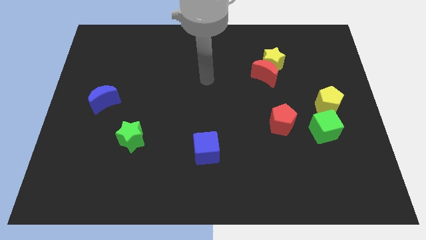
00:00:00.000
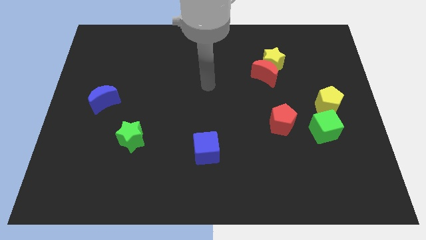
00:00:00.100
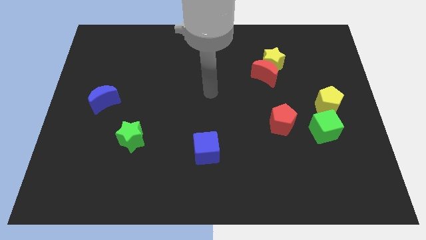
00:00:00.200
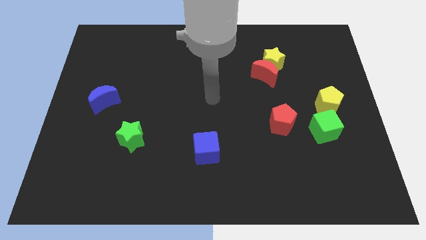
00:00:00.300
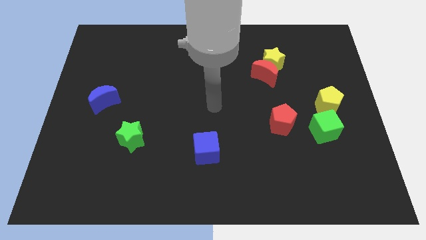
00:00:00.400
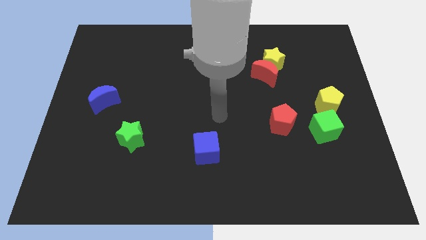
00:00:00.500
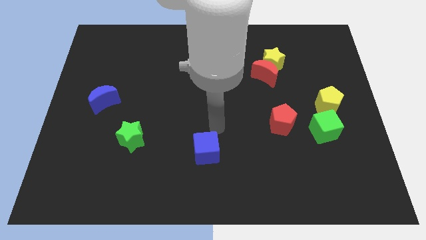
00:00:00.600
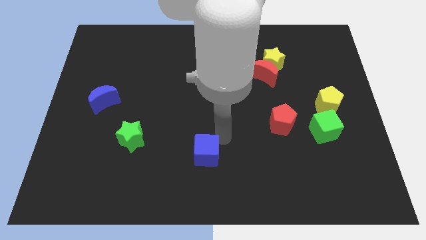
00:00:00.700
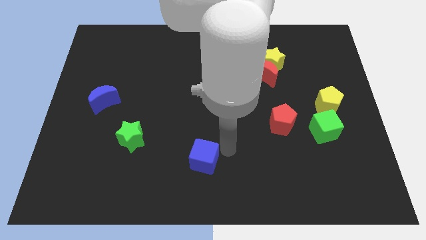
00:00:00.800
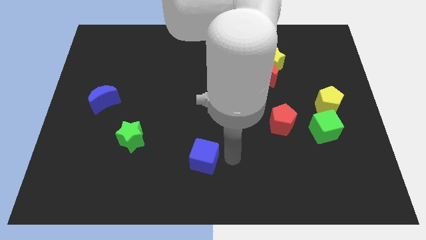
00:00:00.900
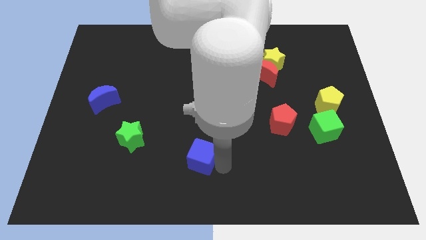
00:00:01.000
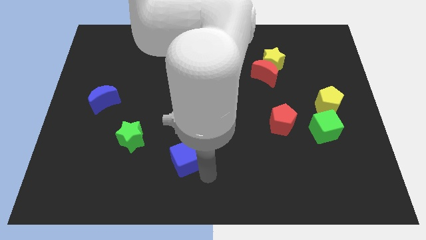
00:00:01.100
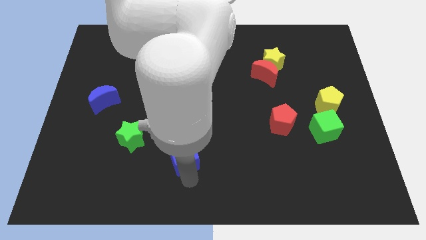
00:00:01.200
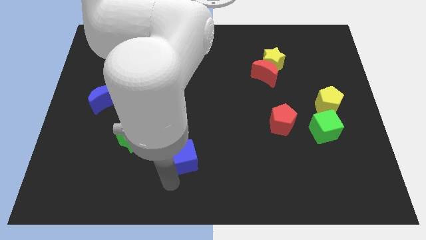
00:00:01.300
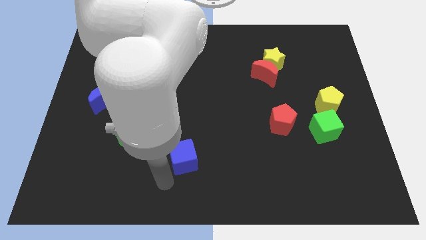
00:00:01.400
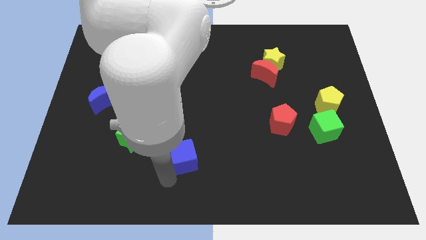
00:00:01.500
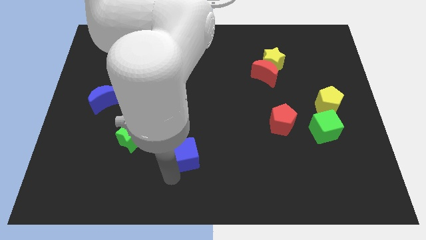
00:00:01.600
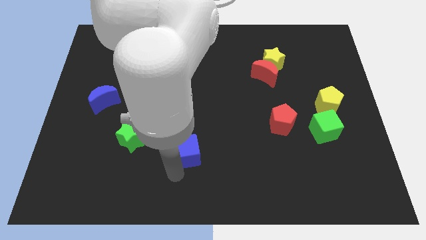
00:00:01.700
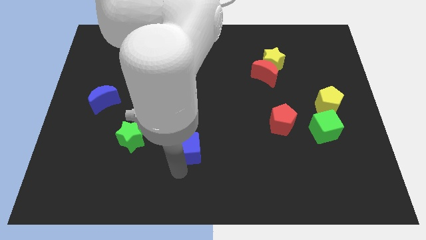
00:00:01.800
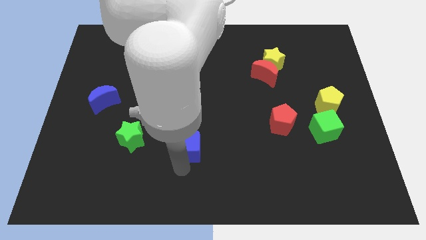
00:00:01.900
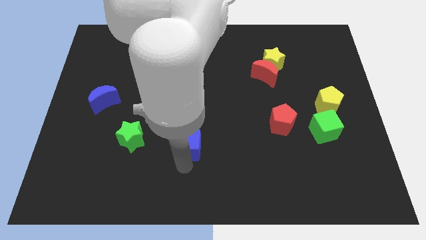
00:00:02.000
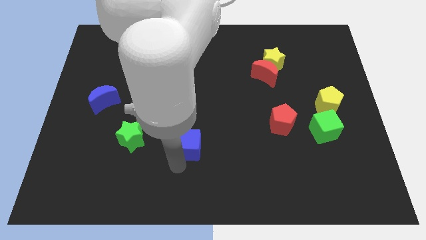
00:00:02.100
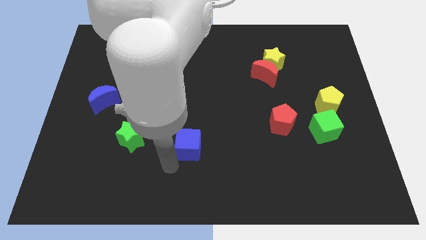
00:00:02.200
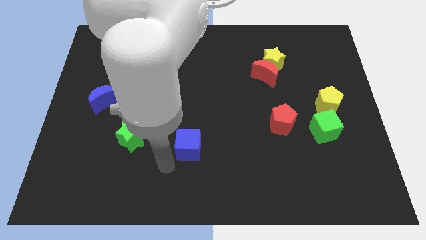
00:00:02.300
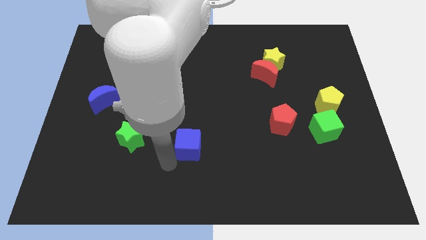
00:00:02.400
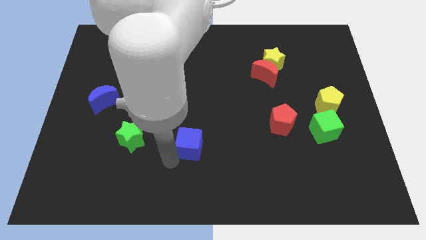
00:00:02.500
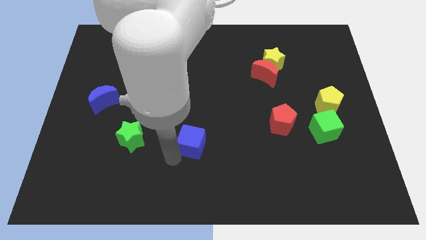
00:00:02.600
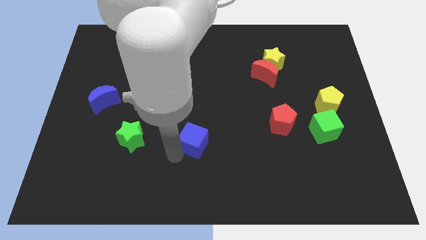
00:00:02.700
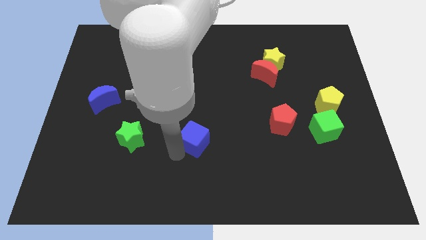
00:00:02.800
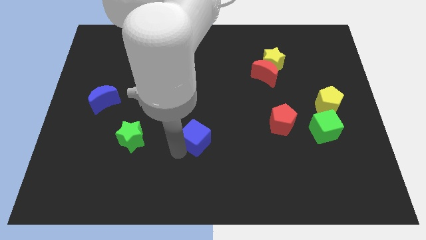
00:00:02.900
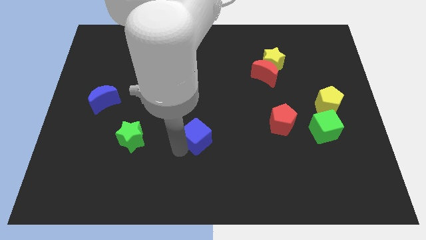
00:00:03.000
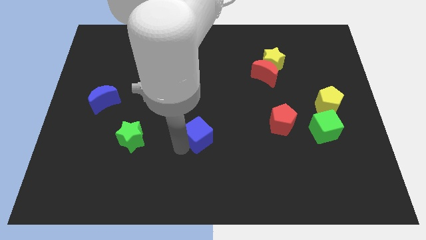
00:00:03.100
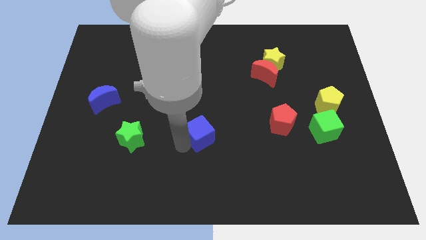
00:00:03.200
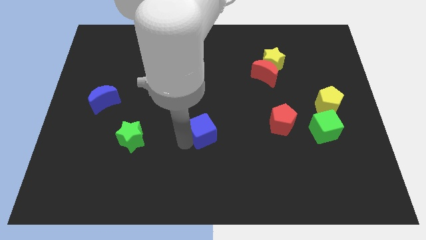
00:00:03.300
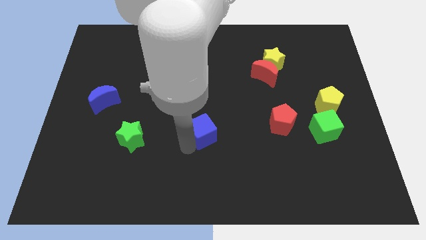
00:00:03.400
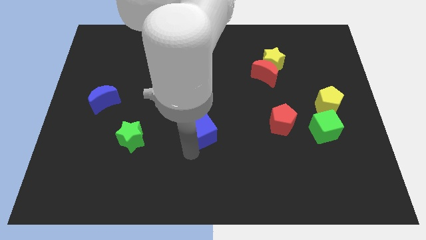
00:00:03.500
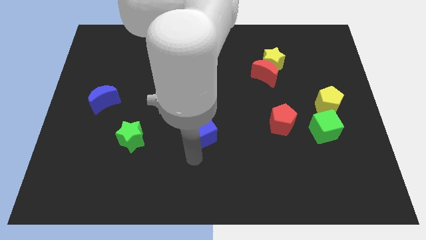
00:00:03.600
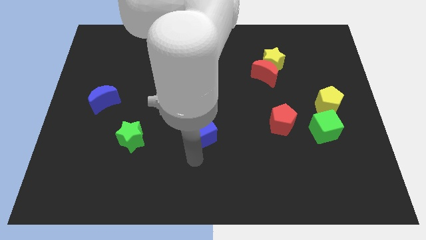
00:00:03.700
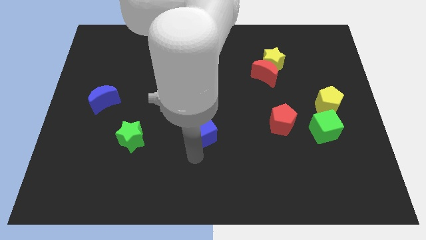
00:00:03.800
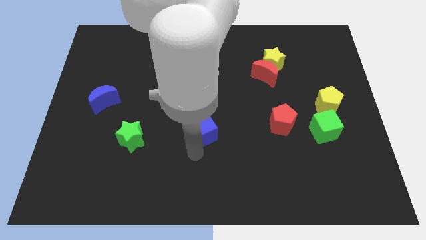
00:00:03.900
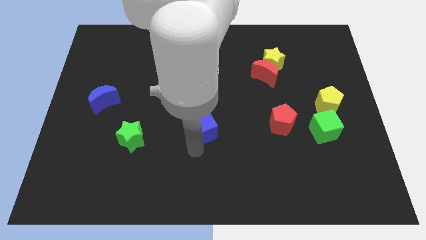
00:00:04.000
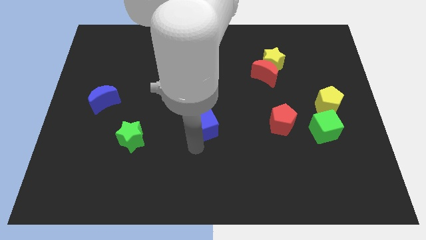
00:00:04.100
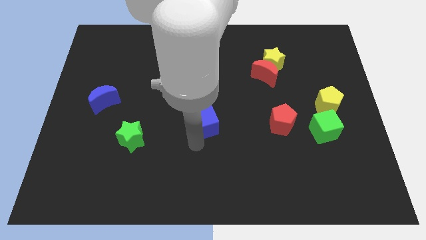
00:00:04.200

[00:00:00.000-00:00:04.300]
move the blue cube a bit upwards

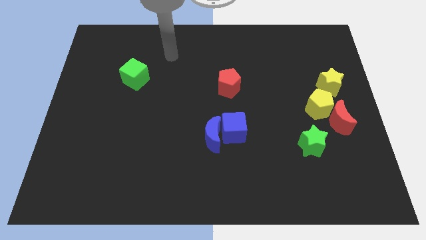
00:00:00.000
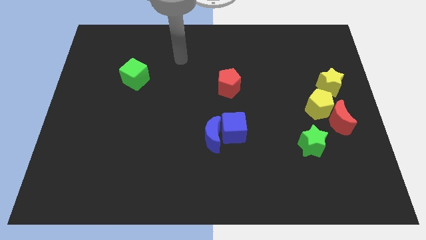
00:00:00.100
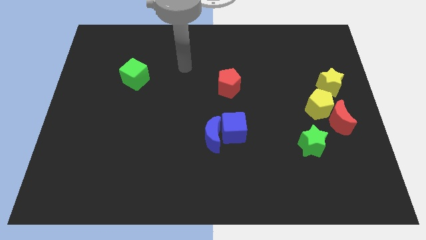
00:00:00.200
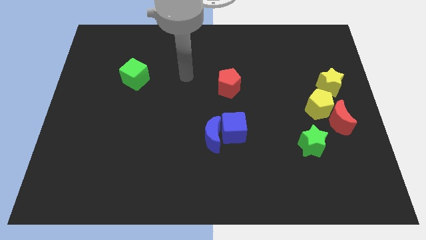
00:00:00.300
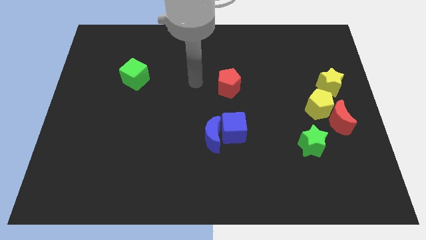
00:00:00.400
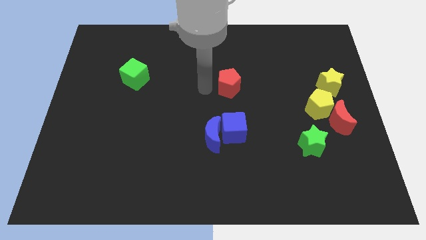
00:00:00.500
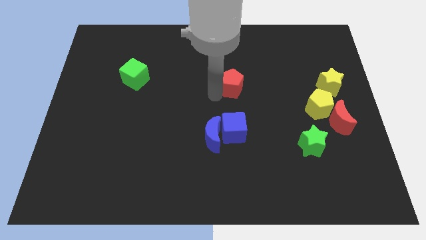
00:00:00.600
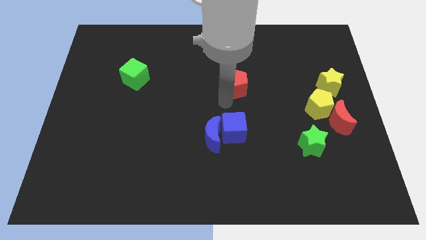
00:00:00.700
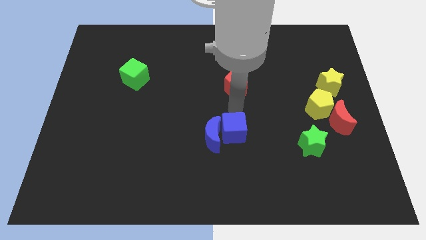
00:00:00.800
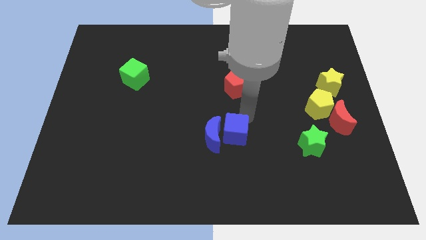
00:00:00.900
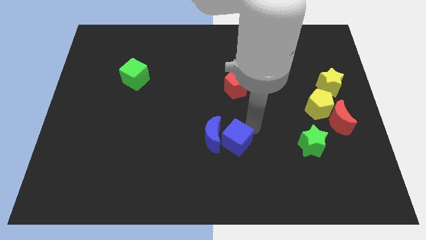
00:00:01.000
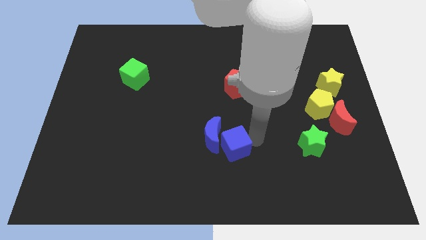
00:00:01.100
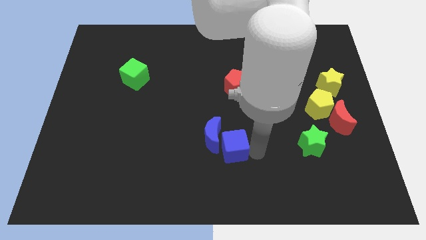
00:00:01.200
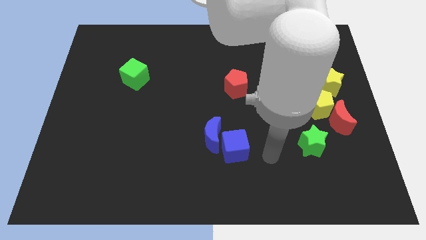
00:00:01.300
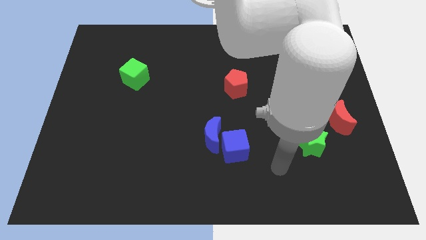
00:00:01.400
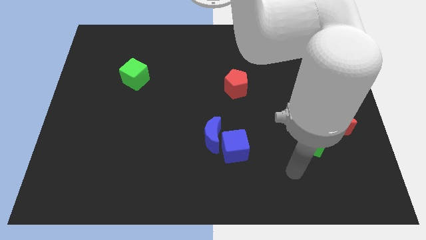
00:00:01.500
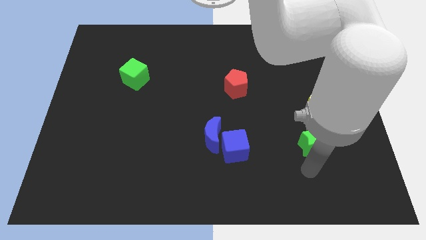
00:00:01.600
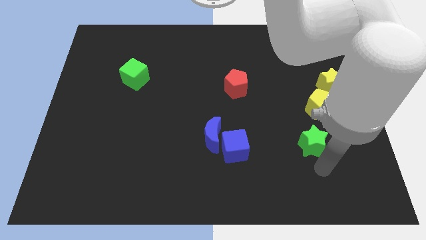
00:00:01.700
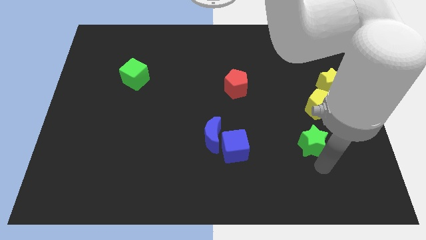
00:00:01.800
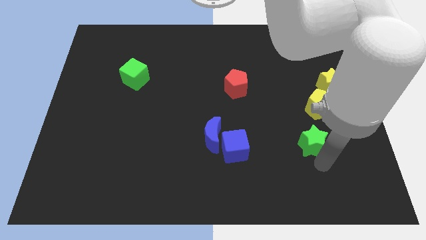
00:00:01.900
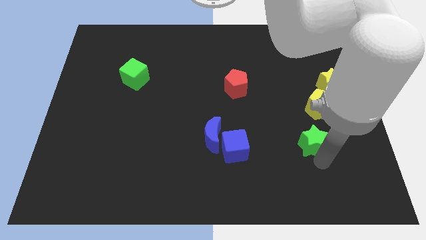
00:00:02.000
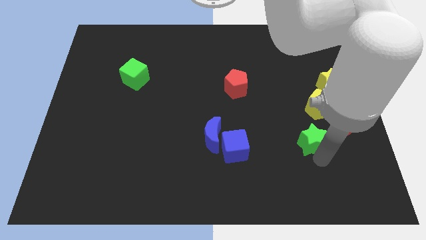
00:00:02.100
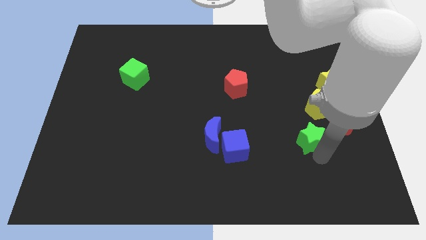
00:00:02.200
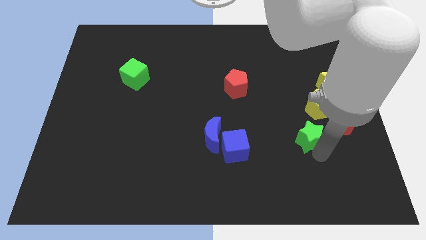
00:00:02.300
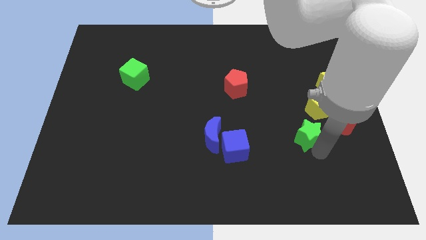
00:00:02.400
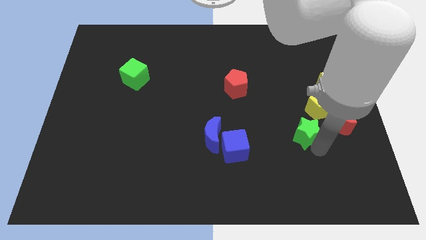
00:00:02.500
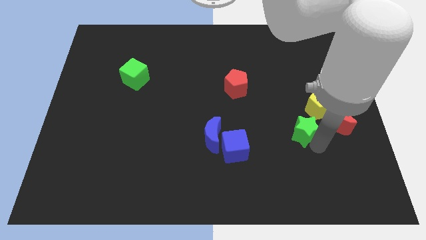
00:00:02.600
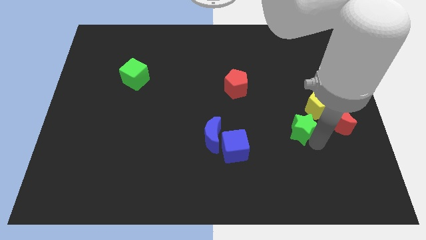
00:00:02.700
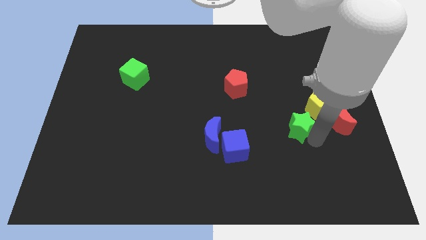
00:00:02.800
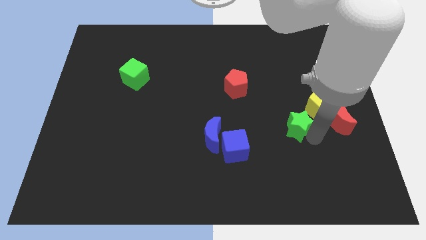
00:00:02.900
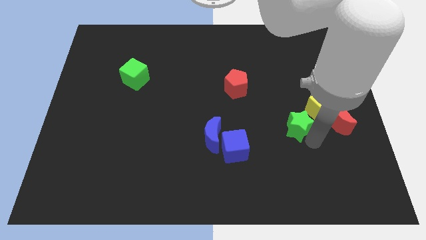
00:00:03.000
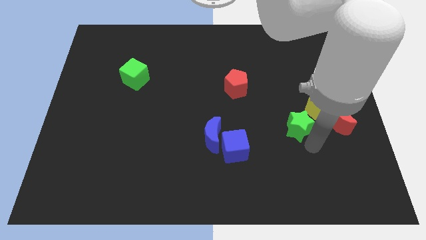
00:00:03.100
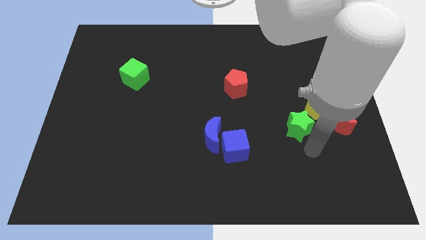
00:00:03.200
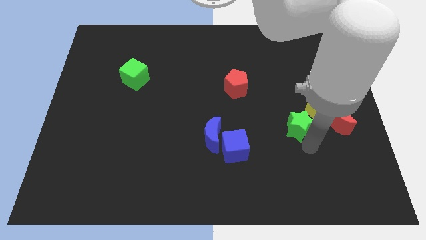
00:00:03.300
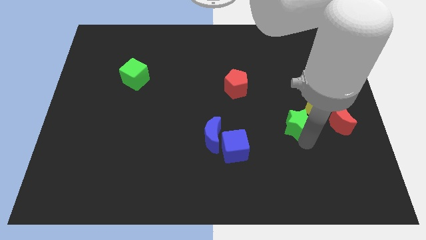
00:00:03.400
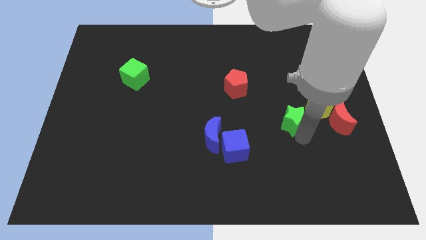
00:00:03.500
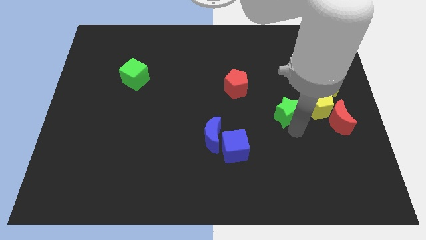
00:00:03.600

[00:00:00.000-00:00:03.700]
slightly slide the green star upwards
